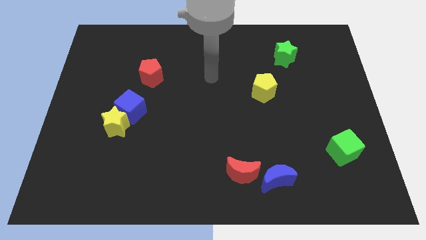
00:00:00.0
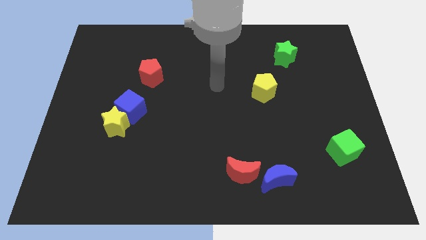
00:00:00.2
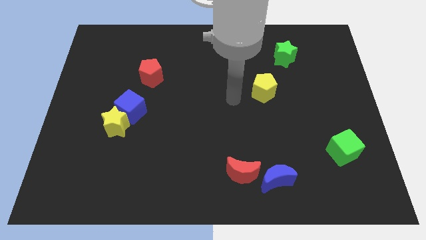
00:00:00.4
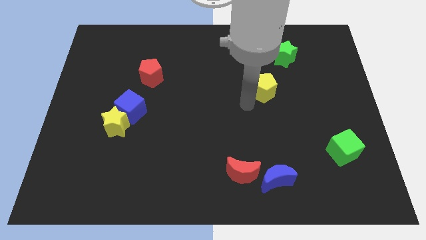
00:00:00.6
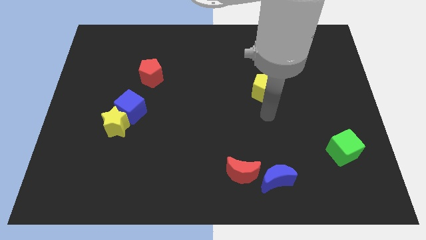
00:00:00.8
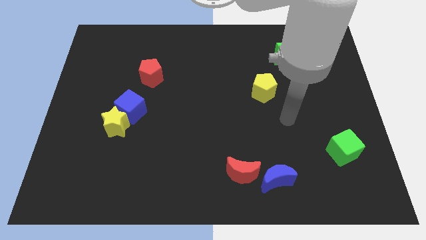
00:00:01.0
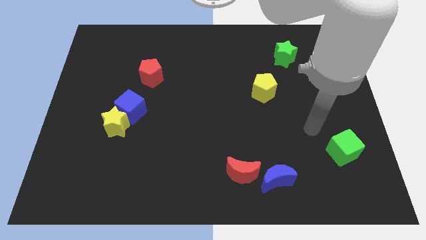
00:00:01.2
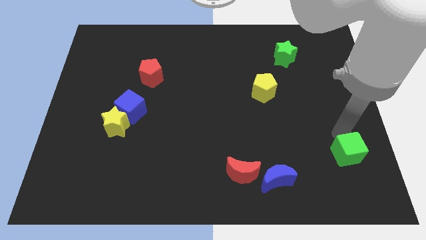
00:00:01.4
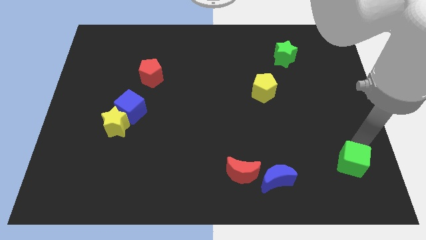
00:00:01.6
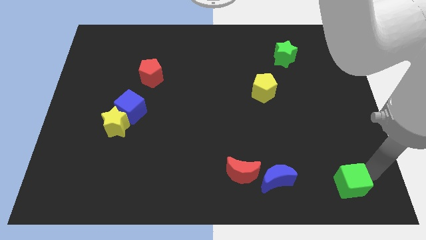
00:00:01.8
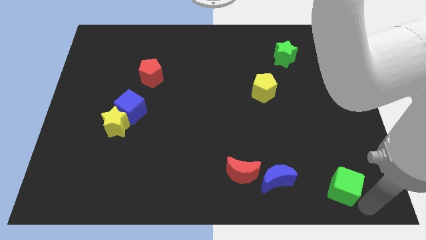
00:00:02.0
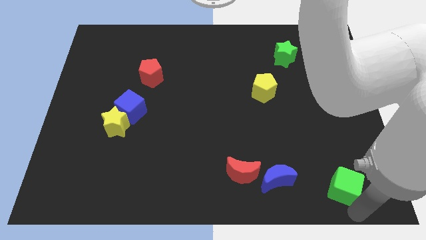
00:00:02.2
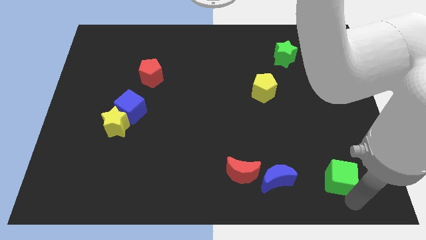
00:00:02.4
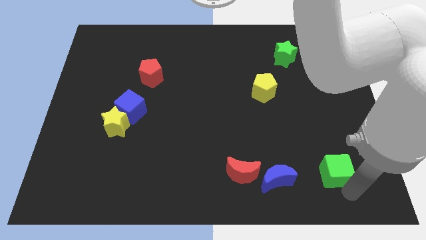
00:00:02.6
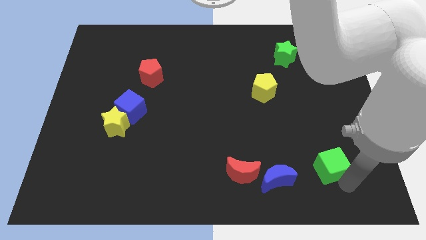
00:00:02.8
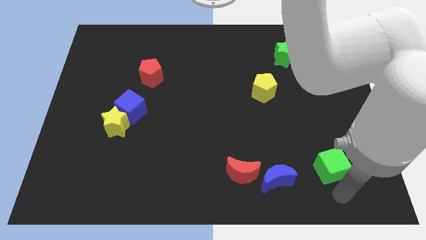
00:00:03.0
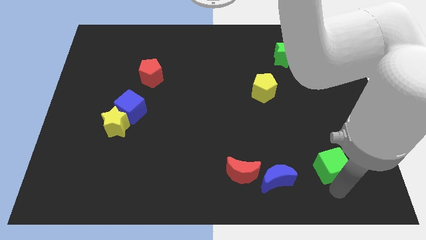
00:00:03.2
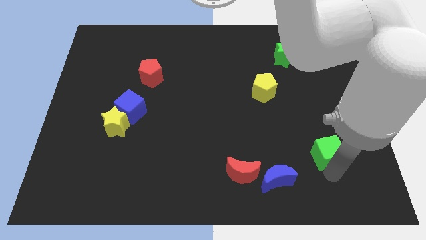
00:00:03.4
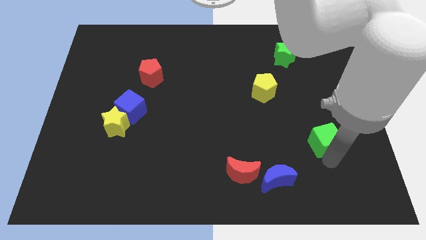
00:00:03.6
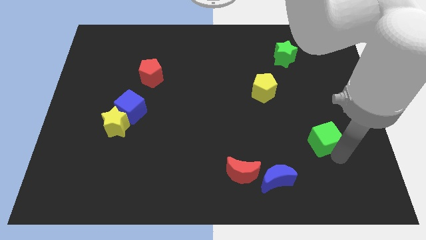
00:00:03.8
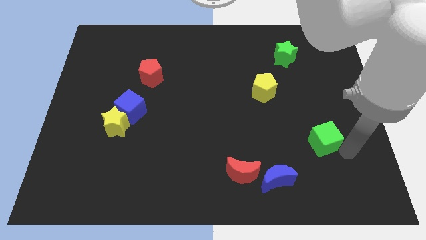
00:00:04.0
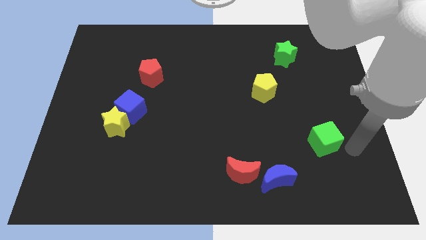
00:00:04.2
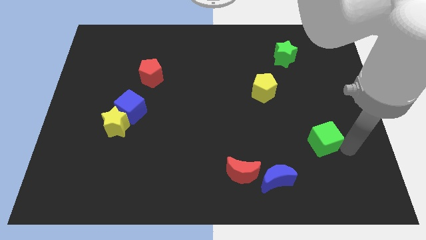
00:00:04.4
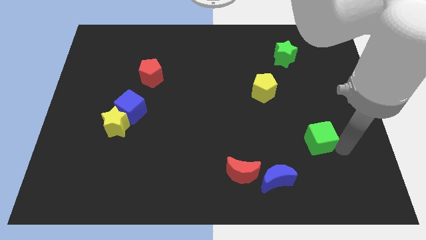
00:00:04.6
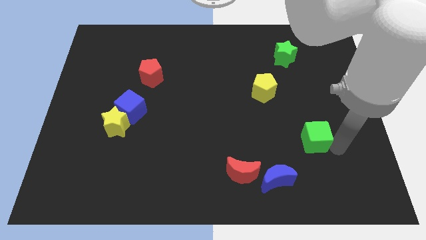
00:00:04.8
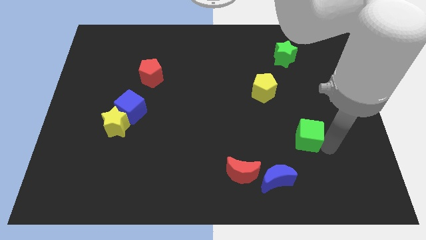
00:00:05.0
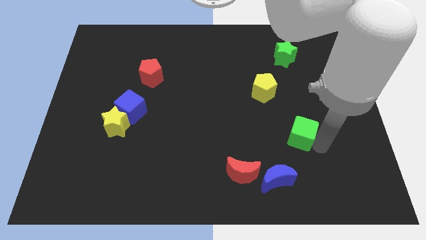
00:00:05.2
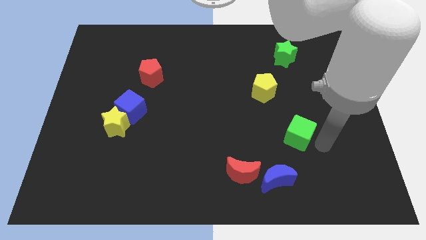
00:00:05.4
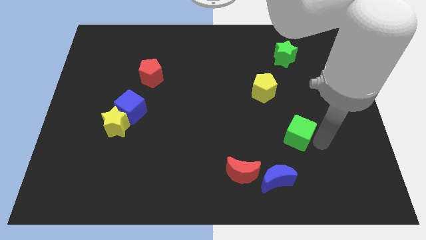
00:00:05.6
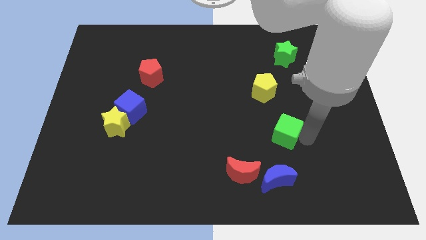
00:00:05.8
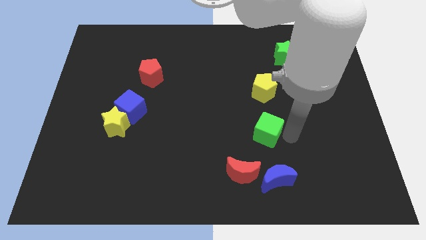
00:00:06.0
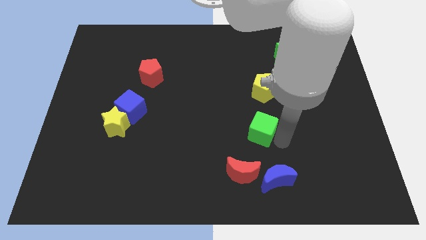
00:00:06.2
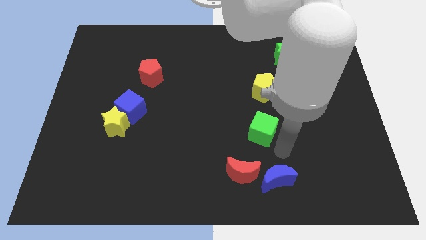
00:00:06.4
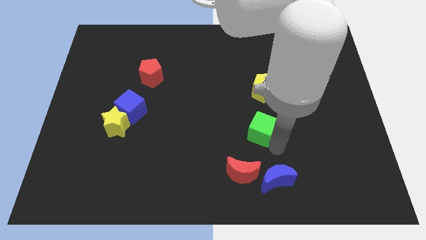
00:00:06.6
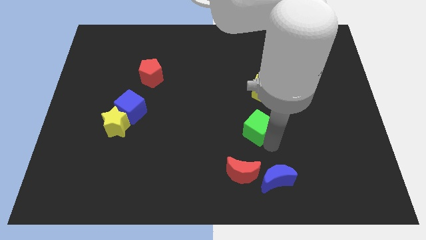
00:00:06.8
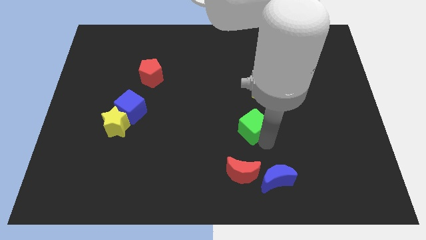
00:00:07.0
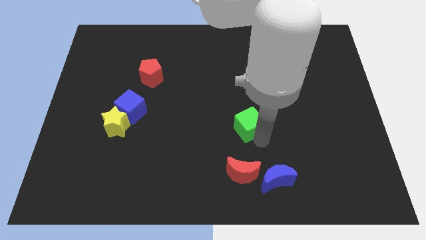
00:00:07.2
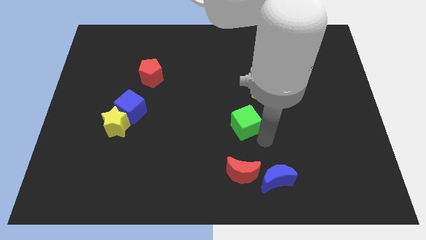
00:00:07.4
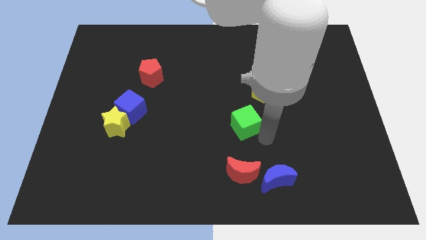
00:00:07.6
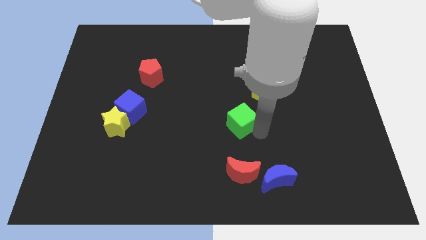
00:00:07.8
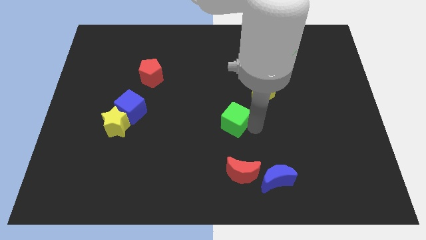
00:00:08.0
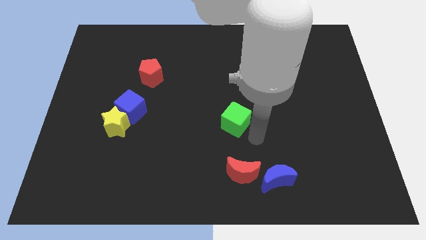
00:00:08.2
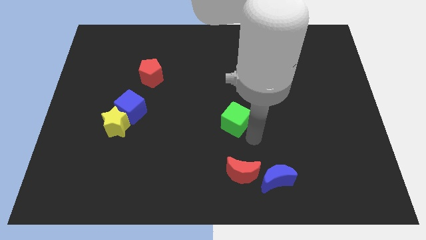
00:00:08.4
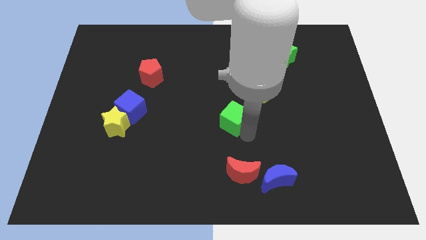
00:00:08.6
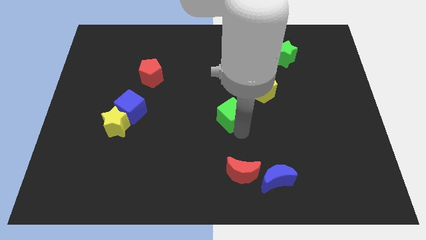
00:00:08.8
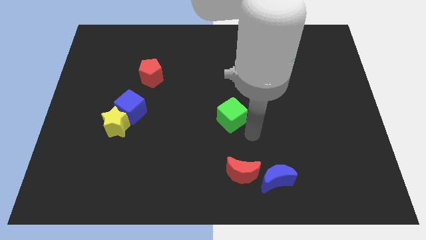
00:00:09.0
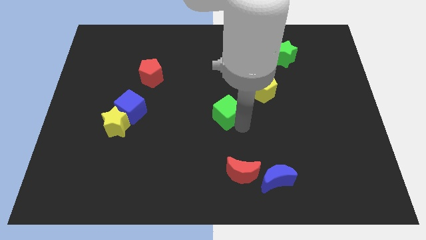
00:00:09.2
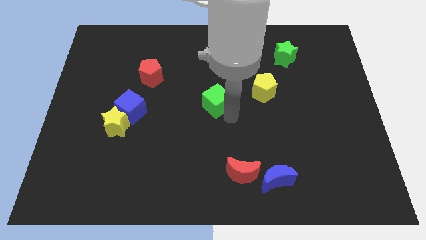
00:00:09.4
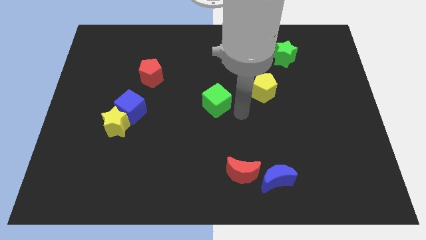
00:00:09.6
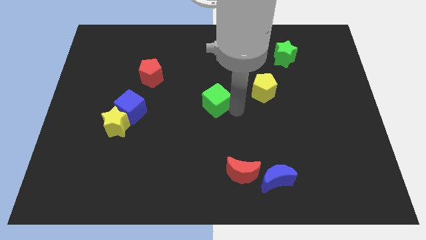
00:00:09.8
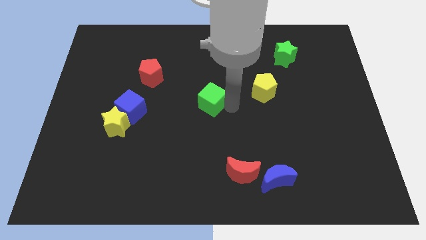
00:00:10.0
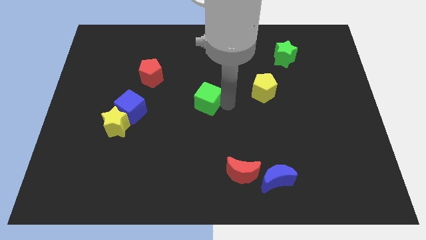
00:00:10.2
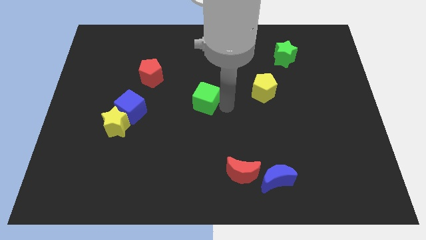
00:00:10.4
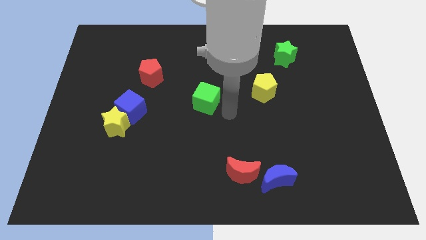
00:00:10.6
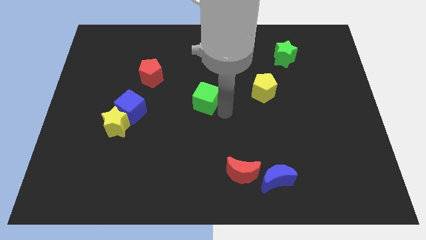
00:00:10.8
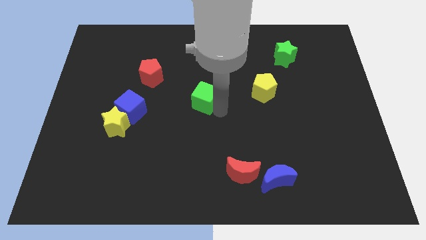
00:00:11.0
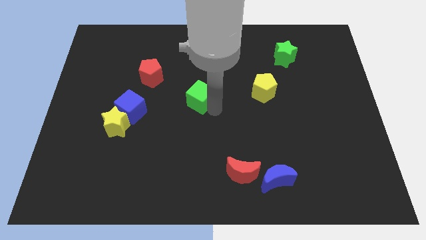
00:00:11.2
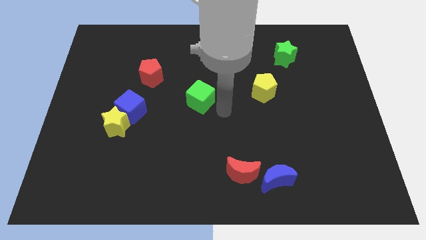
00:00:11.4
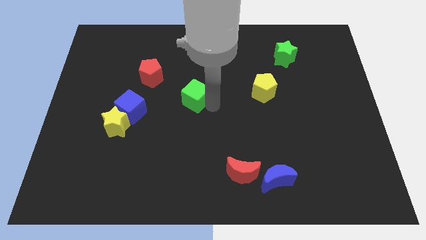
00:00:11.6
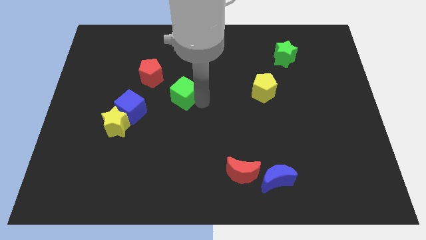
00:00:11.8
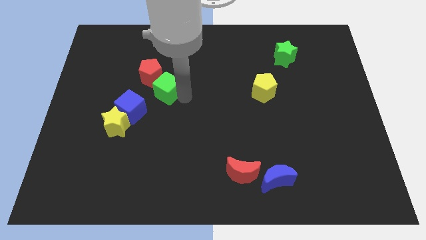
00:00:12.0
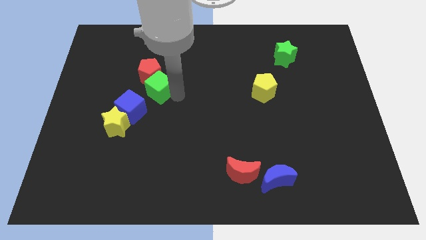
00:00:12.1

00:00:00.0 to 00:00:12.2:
put the green cube to the red pentagon

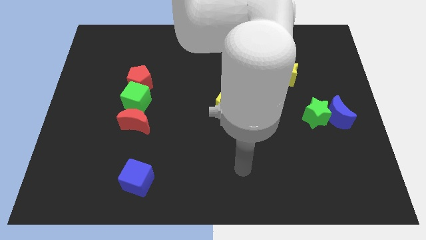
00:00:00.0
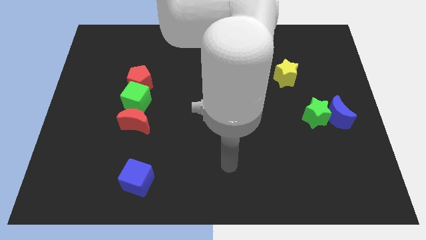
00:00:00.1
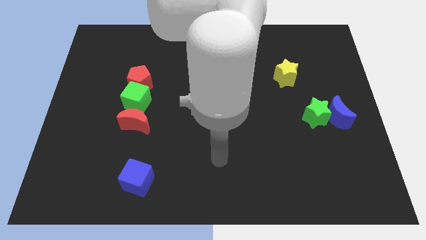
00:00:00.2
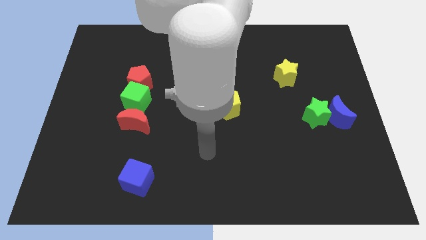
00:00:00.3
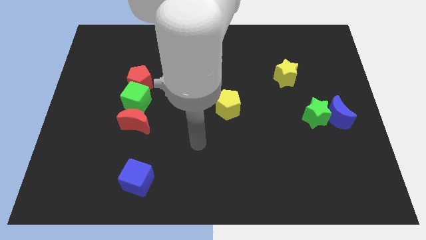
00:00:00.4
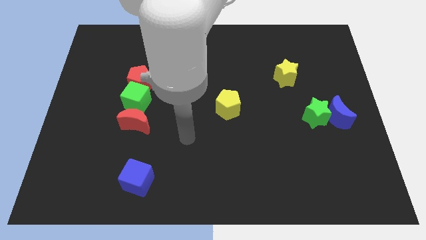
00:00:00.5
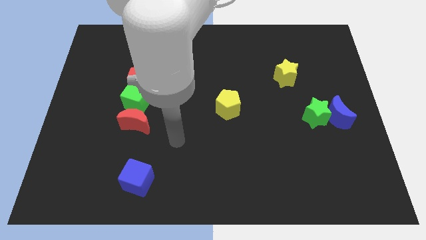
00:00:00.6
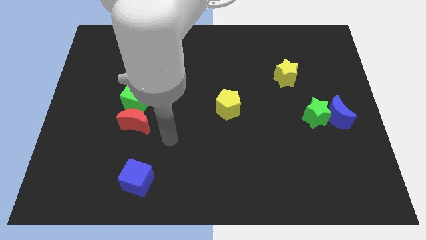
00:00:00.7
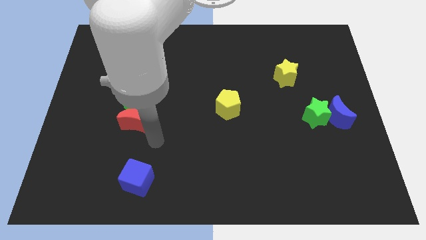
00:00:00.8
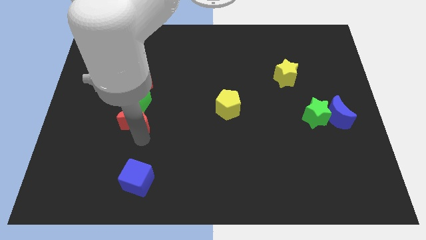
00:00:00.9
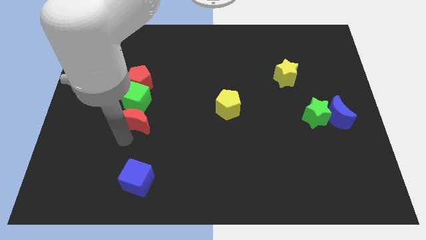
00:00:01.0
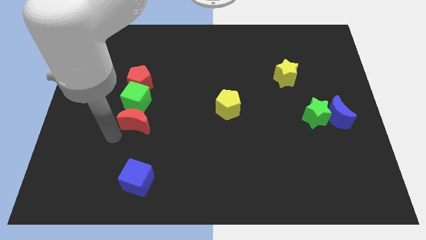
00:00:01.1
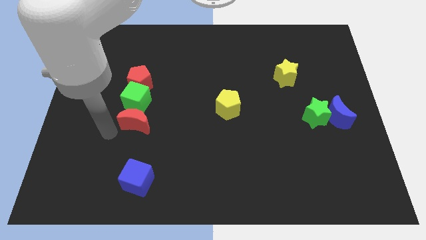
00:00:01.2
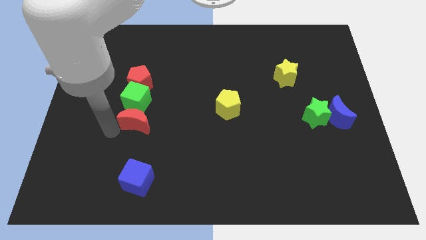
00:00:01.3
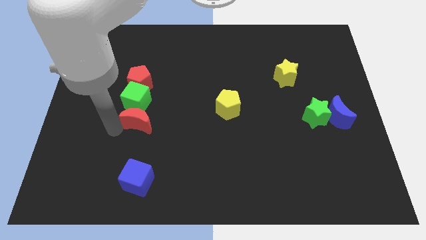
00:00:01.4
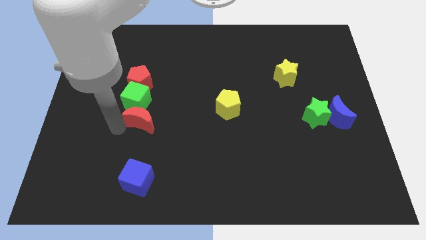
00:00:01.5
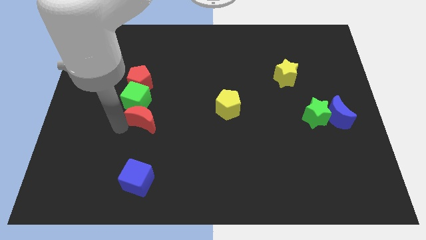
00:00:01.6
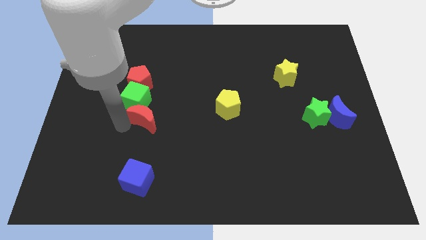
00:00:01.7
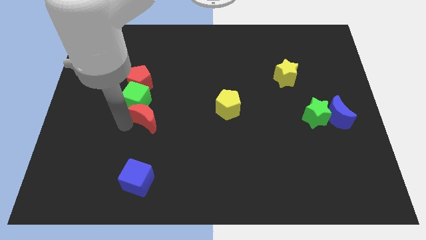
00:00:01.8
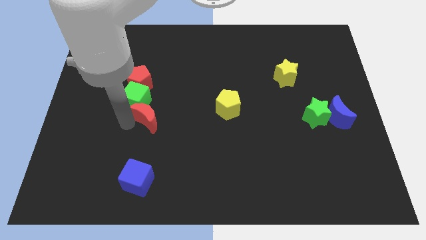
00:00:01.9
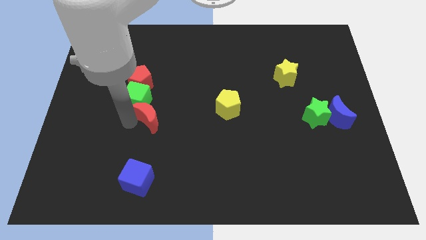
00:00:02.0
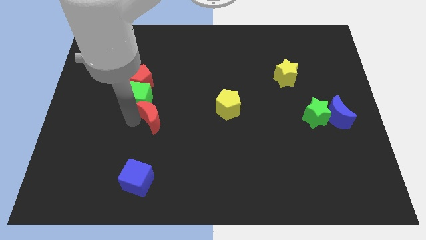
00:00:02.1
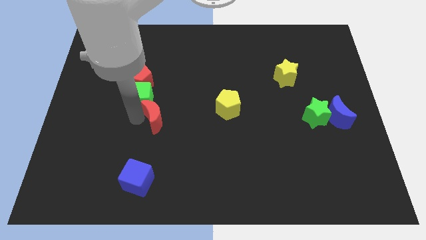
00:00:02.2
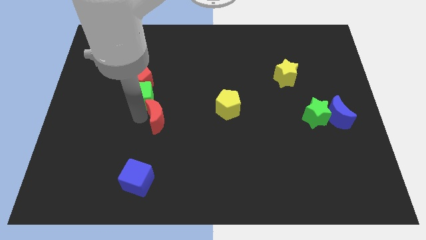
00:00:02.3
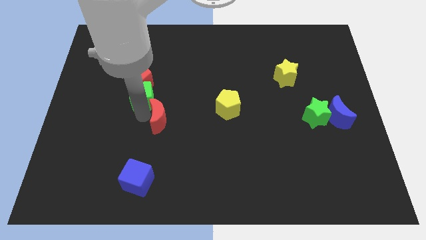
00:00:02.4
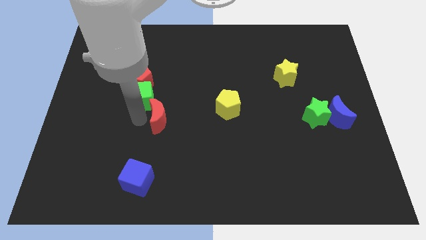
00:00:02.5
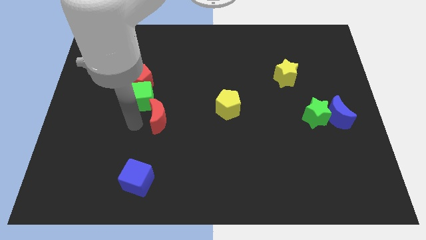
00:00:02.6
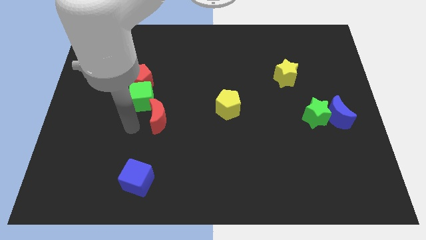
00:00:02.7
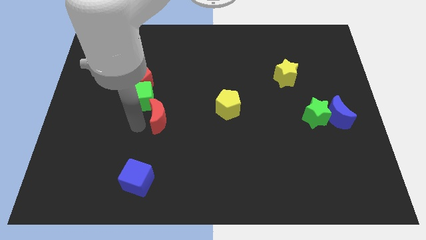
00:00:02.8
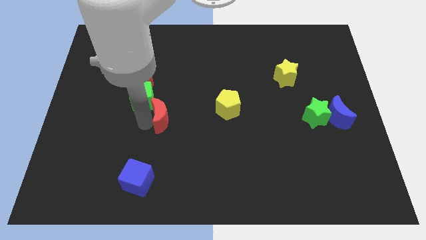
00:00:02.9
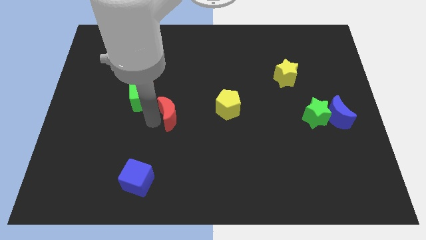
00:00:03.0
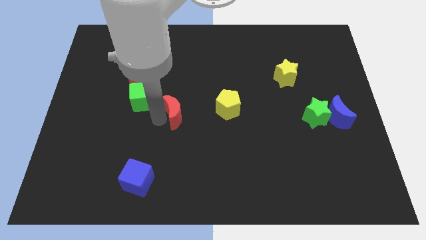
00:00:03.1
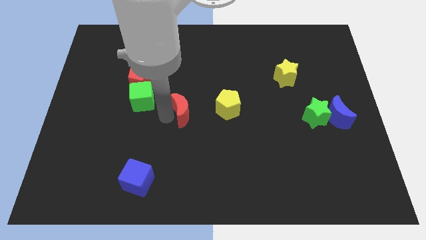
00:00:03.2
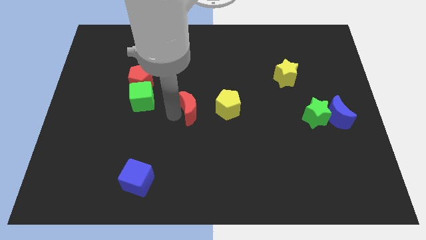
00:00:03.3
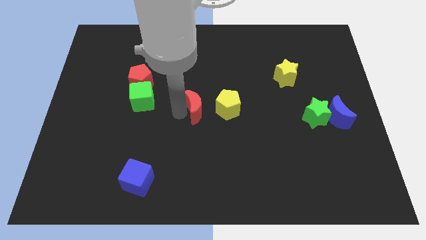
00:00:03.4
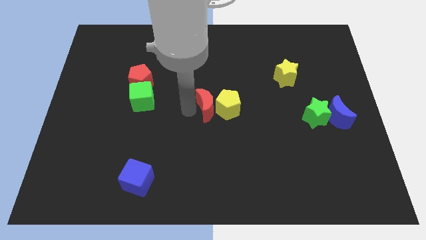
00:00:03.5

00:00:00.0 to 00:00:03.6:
slide the red moon close to the yellow pentagon
